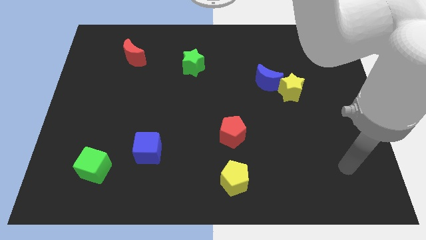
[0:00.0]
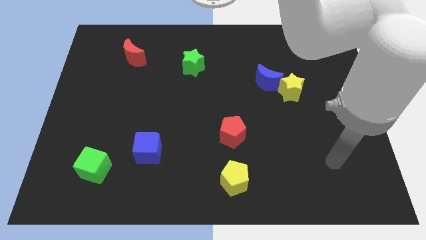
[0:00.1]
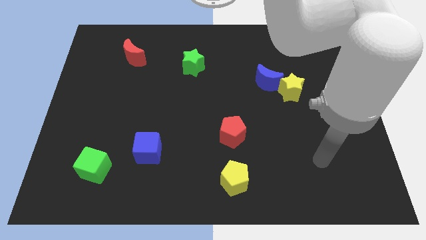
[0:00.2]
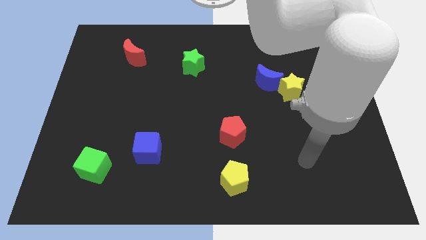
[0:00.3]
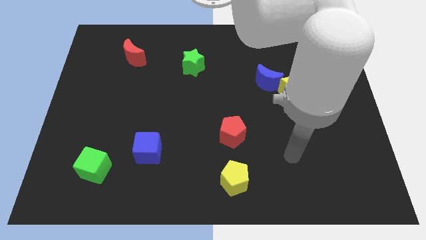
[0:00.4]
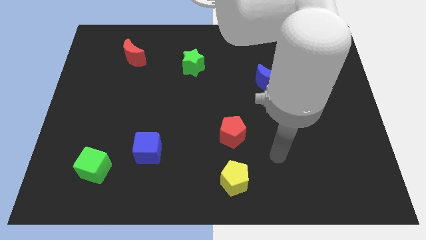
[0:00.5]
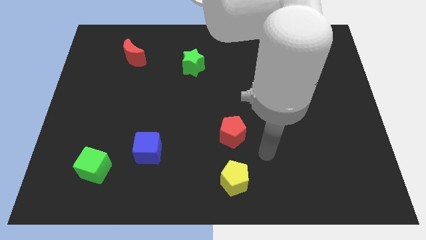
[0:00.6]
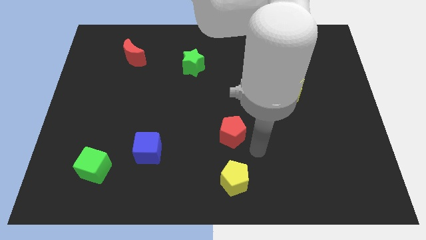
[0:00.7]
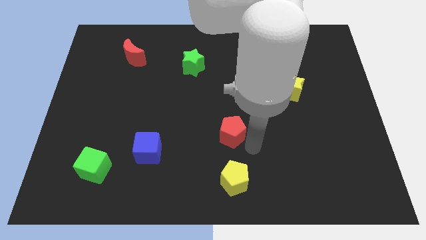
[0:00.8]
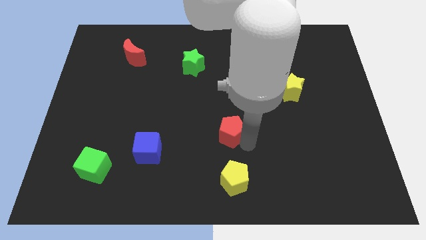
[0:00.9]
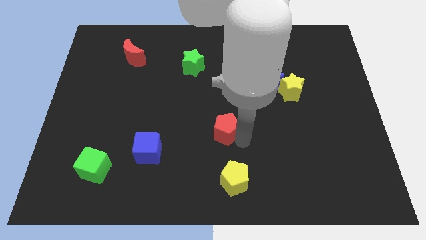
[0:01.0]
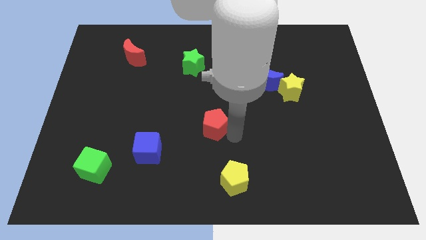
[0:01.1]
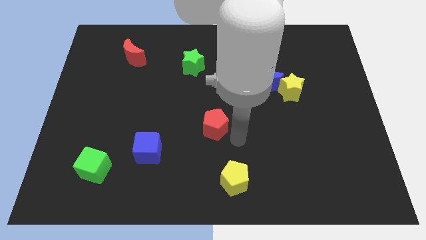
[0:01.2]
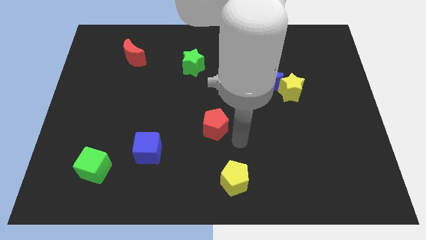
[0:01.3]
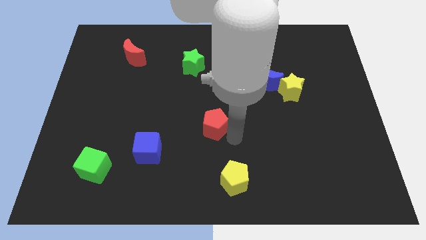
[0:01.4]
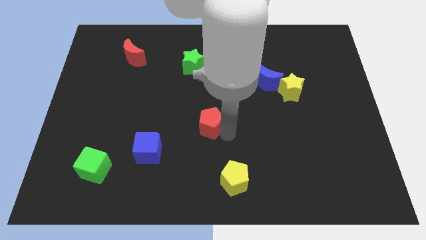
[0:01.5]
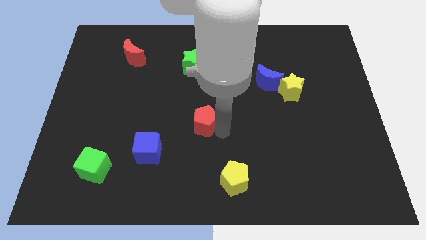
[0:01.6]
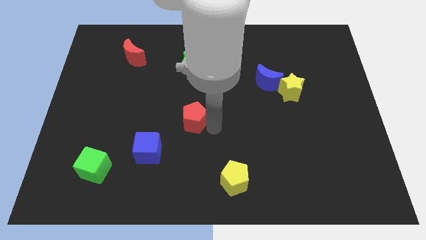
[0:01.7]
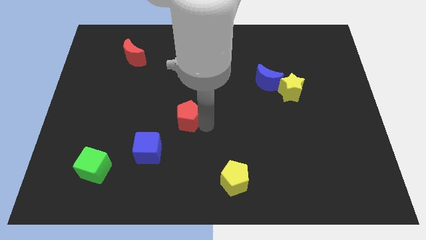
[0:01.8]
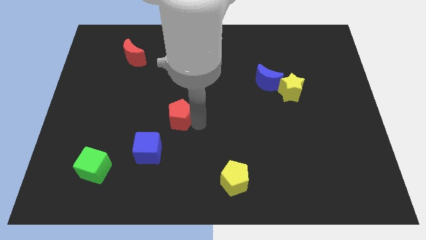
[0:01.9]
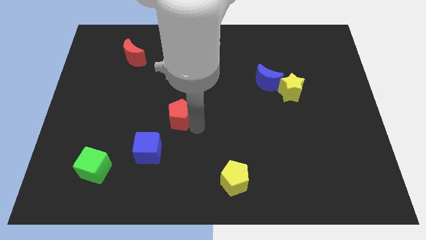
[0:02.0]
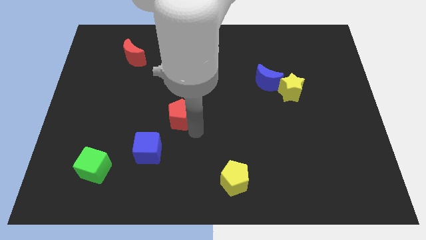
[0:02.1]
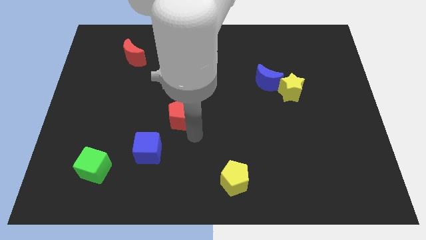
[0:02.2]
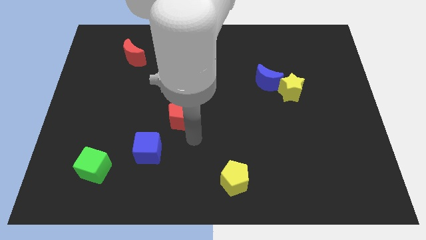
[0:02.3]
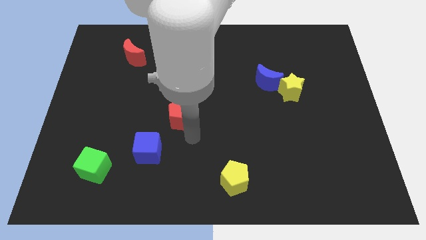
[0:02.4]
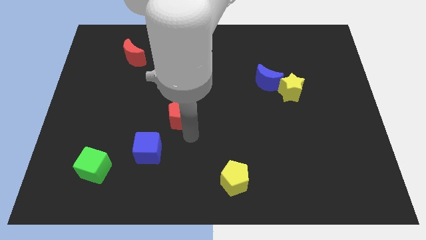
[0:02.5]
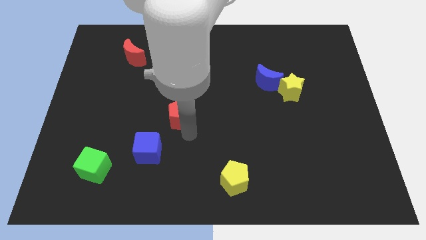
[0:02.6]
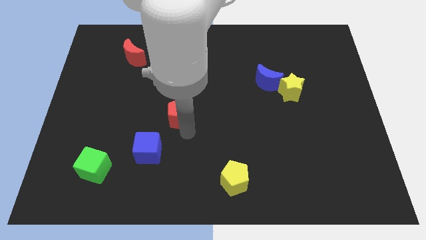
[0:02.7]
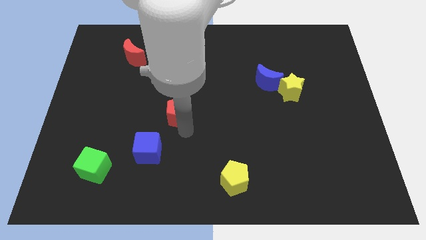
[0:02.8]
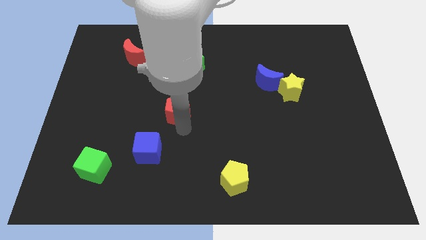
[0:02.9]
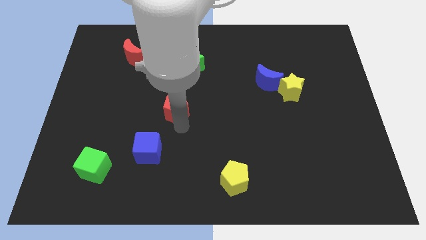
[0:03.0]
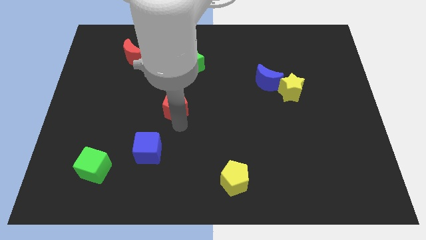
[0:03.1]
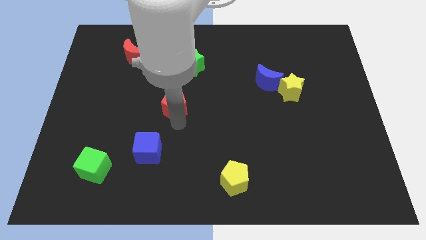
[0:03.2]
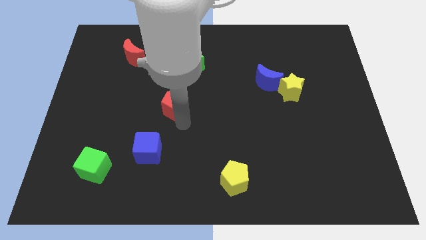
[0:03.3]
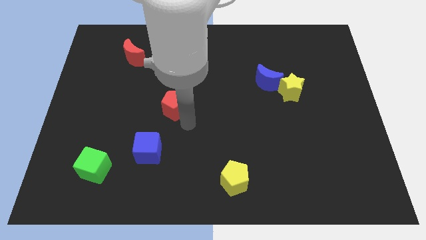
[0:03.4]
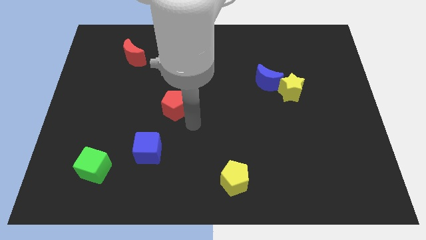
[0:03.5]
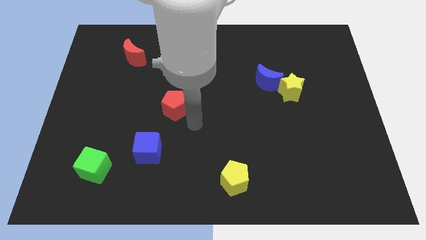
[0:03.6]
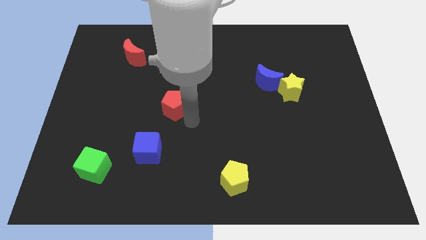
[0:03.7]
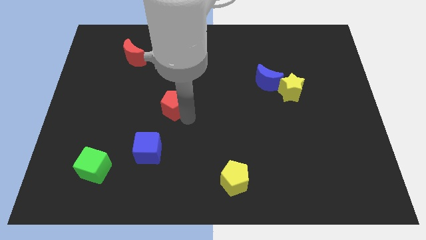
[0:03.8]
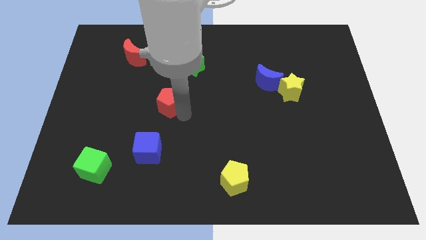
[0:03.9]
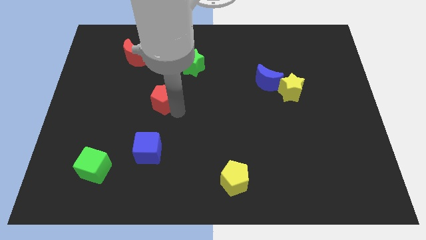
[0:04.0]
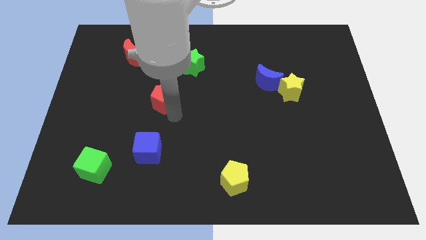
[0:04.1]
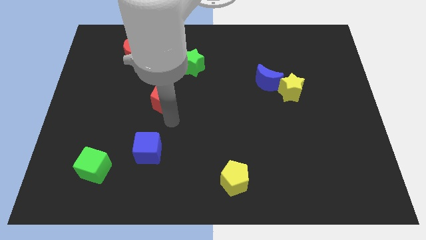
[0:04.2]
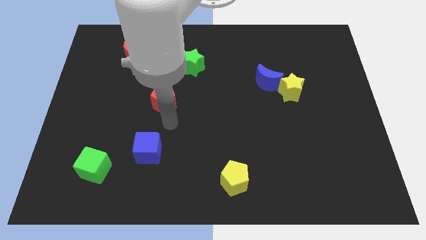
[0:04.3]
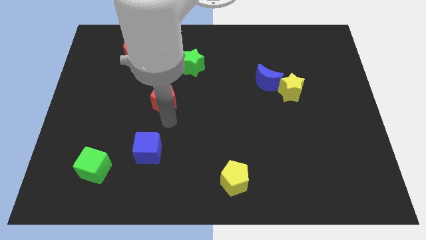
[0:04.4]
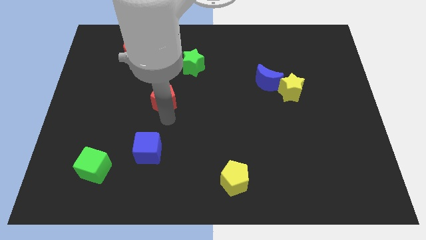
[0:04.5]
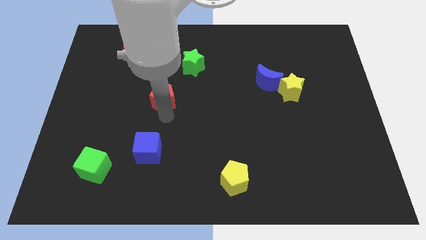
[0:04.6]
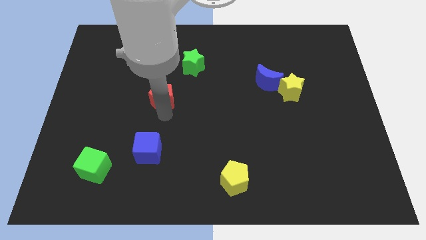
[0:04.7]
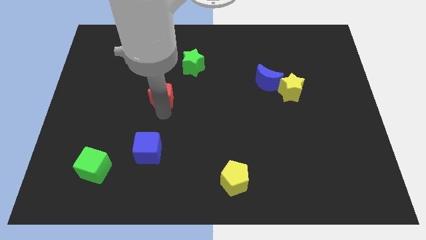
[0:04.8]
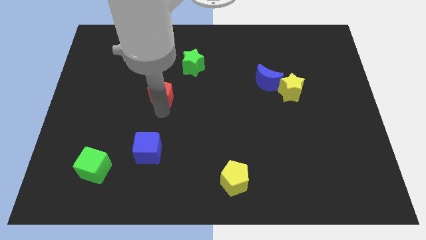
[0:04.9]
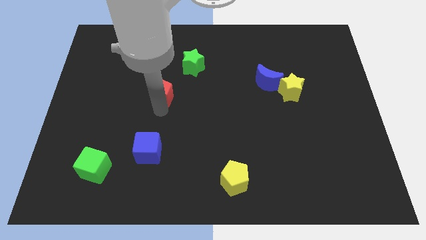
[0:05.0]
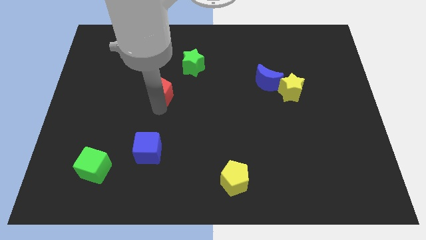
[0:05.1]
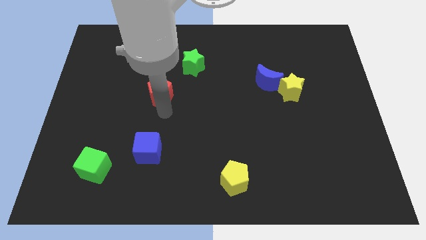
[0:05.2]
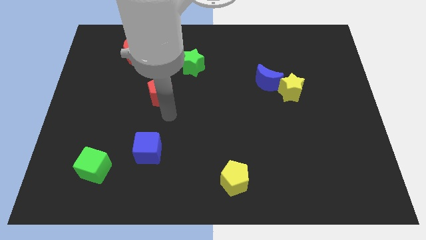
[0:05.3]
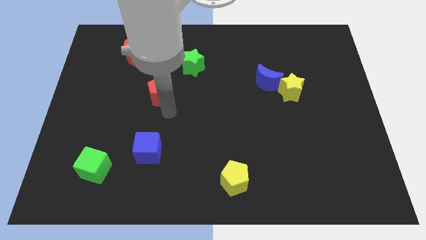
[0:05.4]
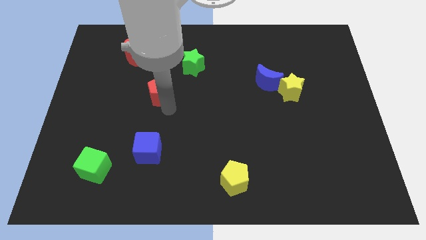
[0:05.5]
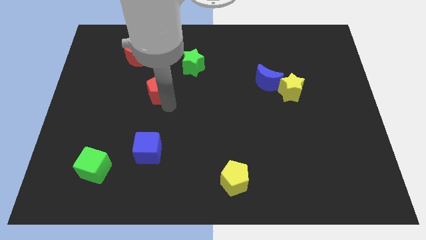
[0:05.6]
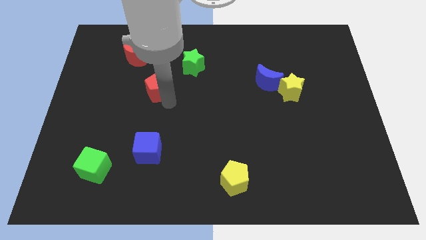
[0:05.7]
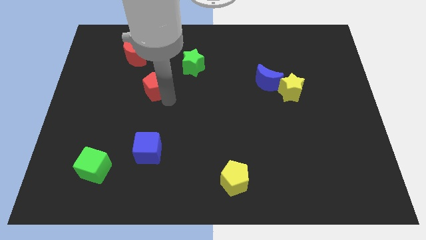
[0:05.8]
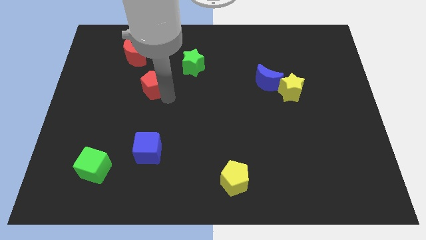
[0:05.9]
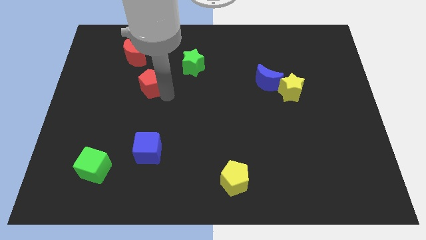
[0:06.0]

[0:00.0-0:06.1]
slide the red pentagon to the bottom right of the red moon

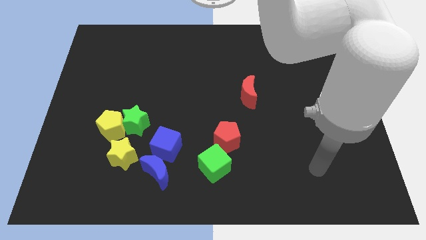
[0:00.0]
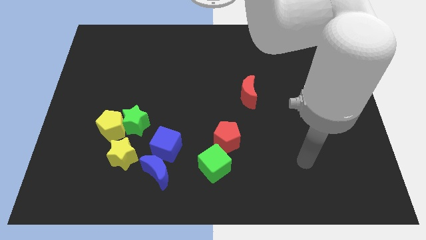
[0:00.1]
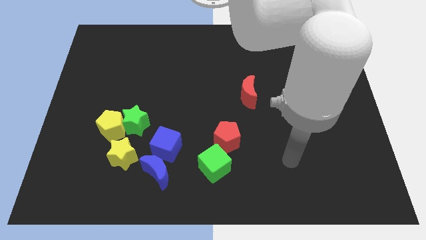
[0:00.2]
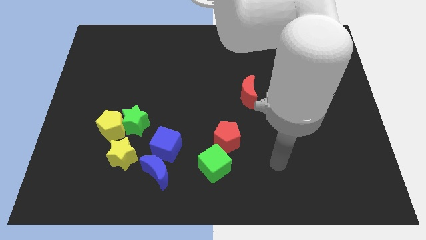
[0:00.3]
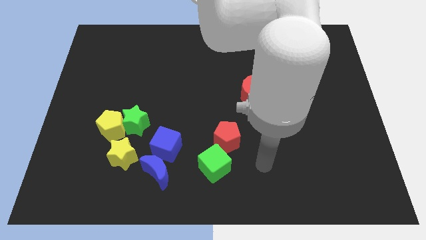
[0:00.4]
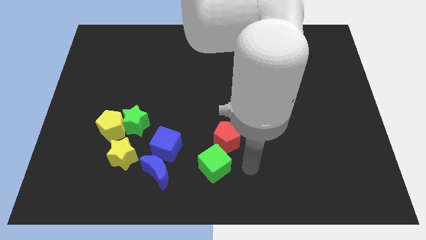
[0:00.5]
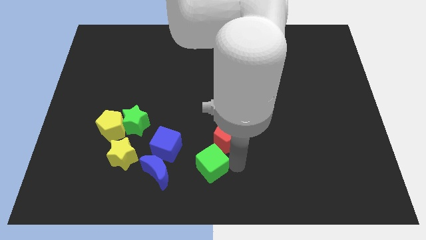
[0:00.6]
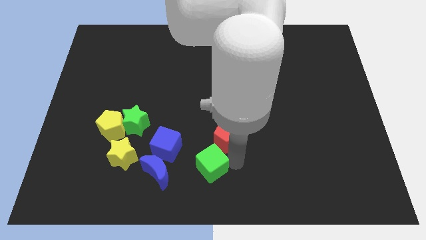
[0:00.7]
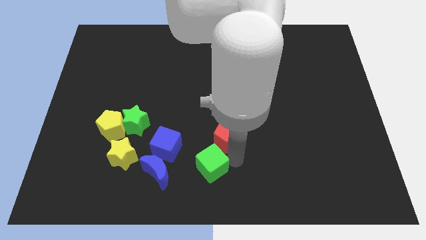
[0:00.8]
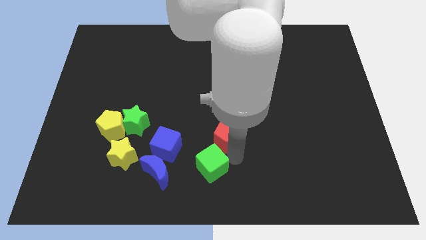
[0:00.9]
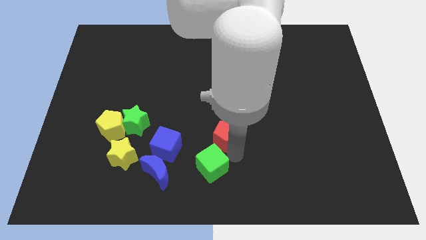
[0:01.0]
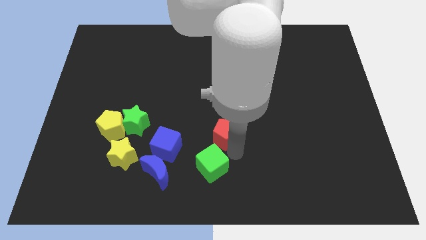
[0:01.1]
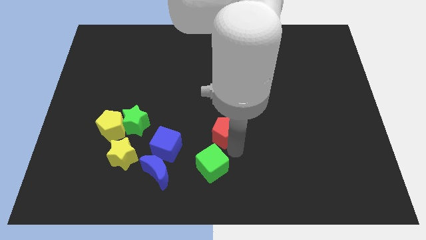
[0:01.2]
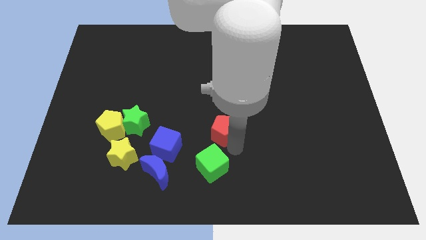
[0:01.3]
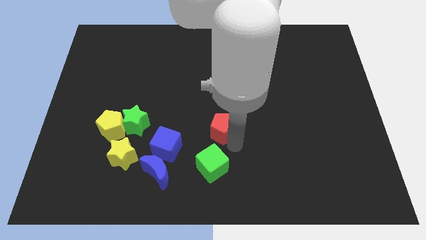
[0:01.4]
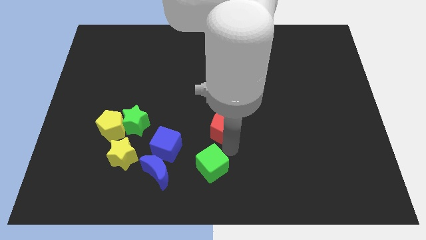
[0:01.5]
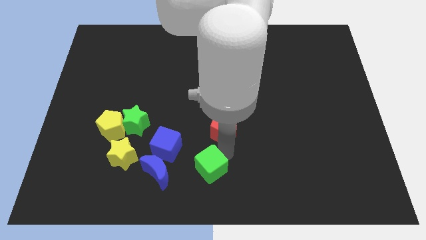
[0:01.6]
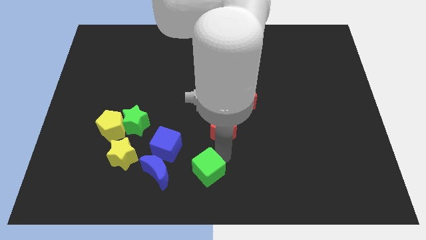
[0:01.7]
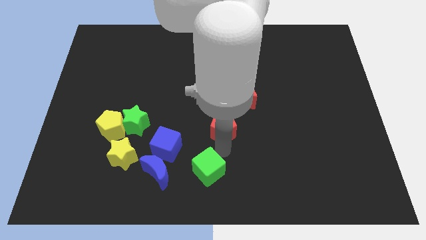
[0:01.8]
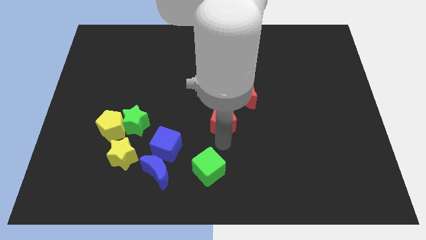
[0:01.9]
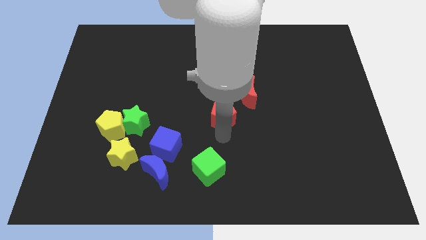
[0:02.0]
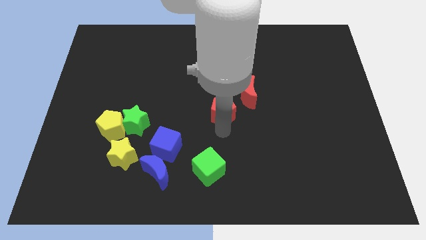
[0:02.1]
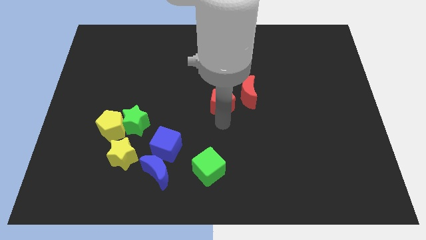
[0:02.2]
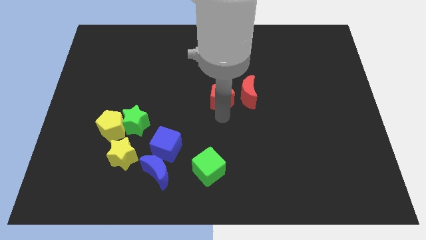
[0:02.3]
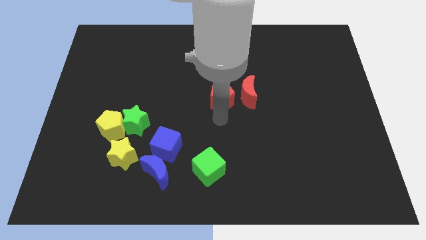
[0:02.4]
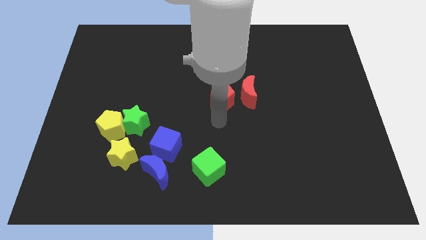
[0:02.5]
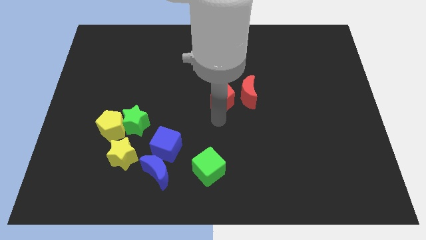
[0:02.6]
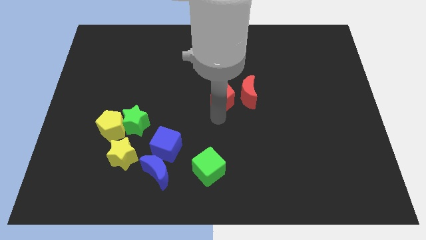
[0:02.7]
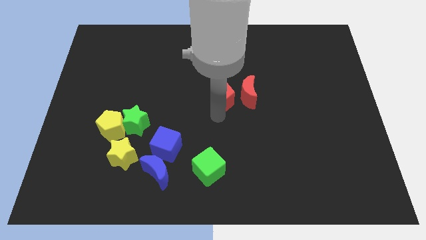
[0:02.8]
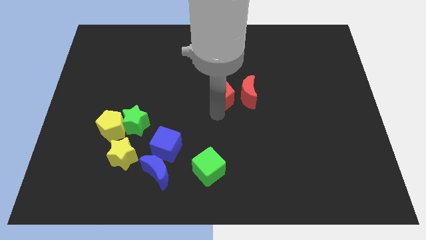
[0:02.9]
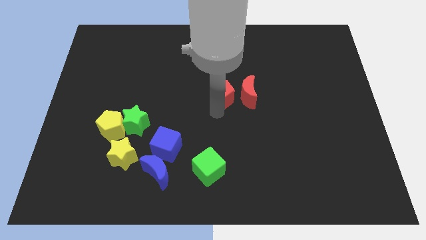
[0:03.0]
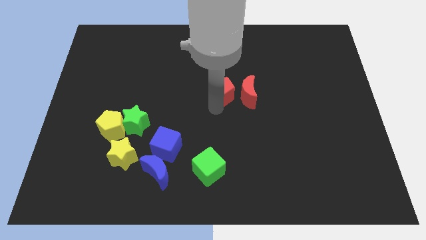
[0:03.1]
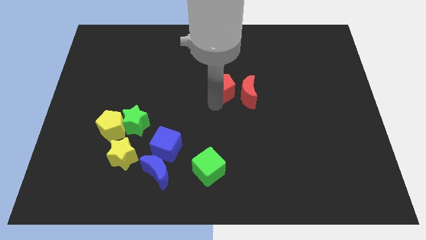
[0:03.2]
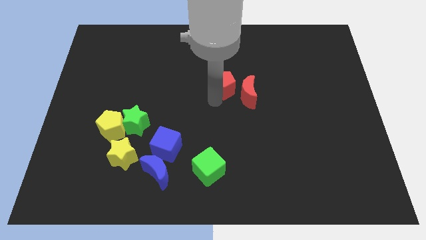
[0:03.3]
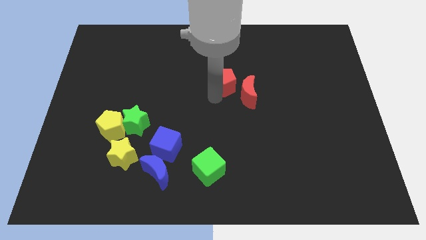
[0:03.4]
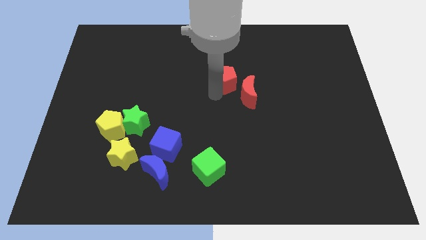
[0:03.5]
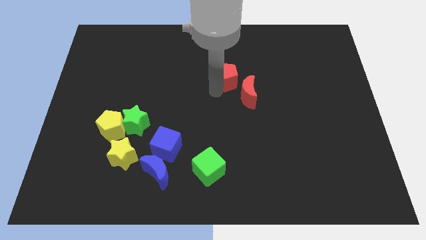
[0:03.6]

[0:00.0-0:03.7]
move the red pentagon above the red moon
